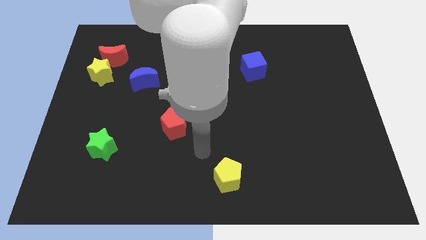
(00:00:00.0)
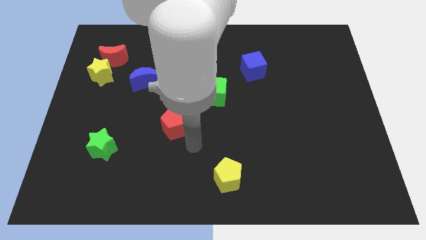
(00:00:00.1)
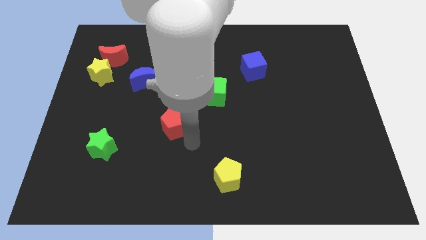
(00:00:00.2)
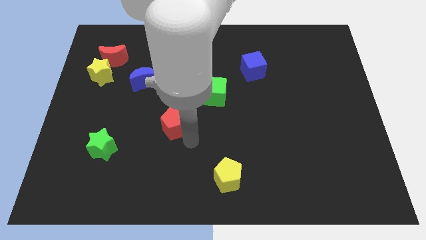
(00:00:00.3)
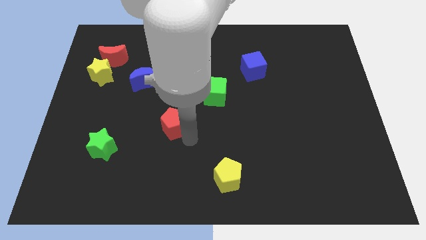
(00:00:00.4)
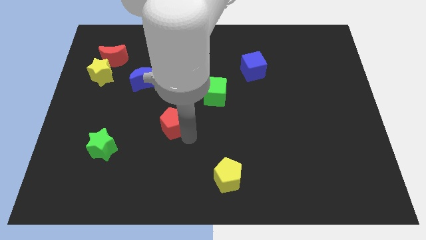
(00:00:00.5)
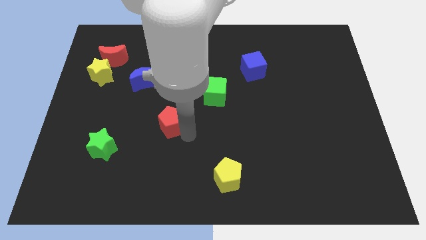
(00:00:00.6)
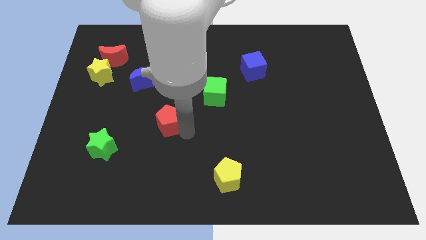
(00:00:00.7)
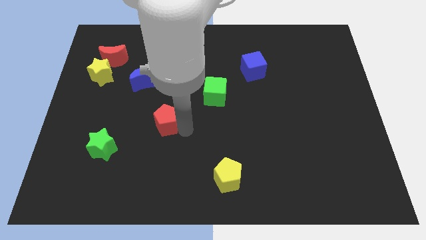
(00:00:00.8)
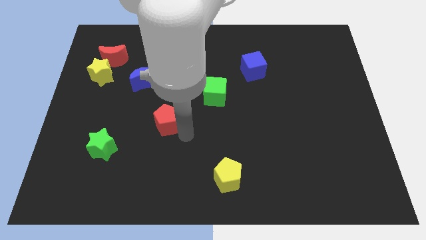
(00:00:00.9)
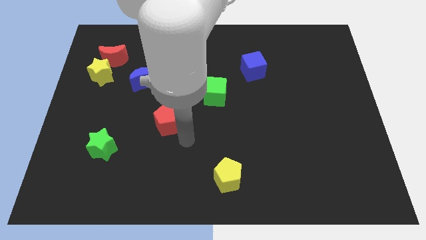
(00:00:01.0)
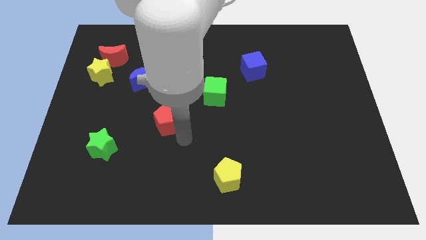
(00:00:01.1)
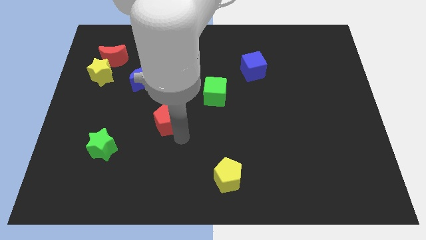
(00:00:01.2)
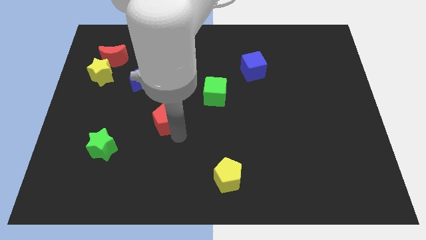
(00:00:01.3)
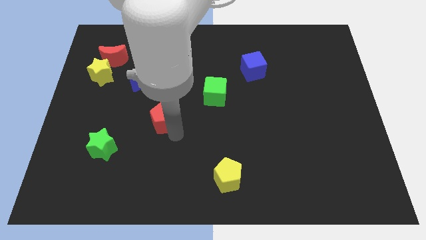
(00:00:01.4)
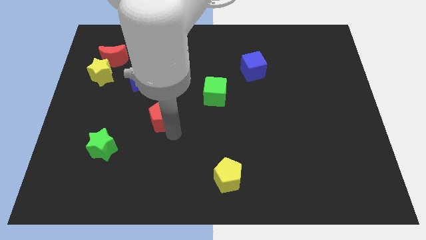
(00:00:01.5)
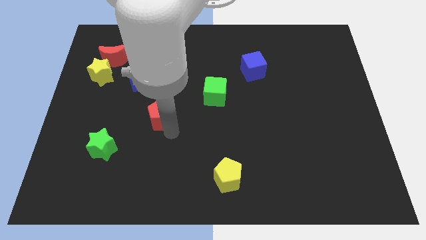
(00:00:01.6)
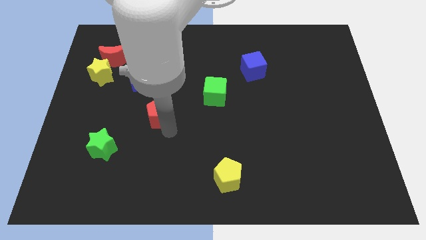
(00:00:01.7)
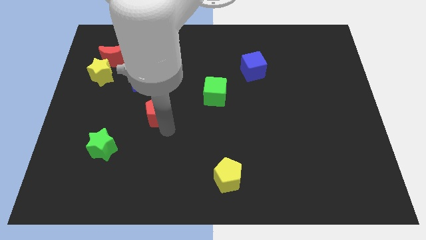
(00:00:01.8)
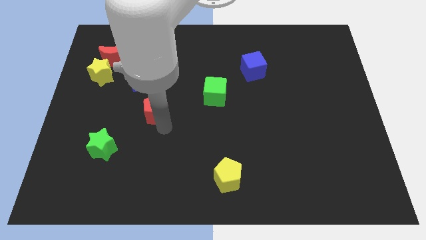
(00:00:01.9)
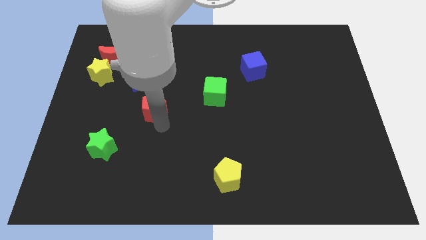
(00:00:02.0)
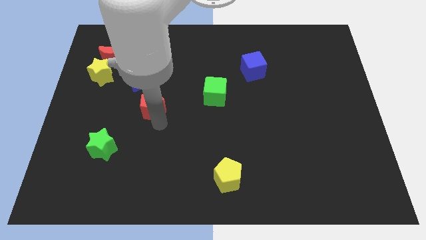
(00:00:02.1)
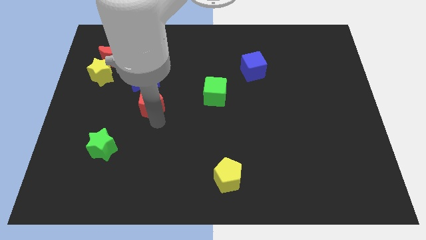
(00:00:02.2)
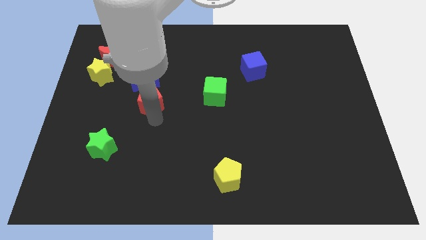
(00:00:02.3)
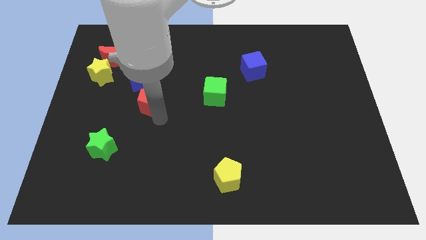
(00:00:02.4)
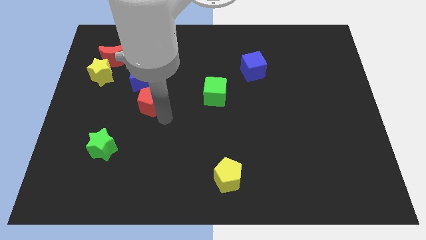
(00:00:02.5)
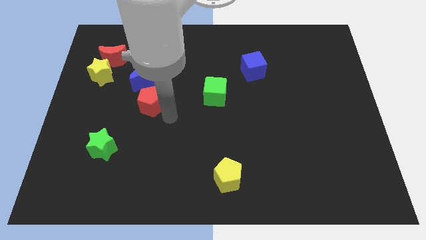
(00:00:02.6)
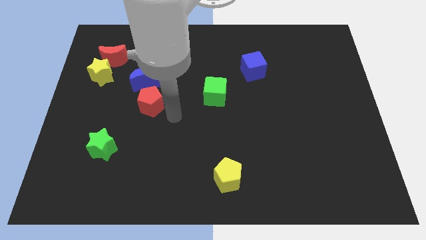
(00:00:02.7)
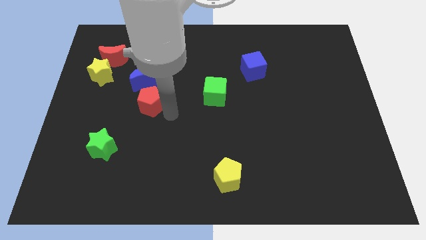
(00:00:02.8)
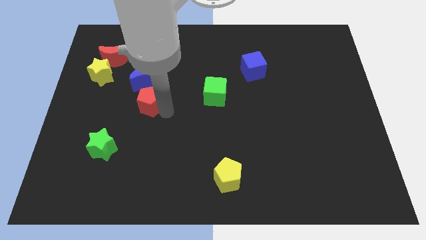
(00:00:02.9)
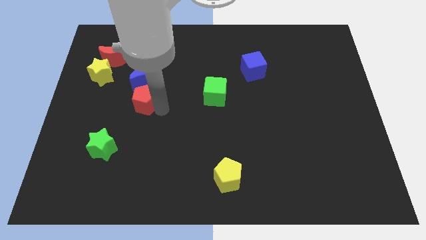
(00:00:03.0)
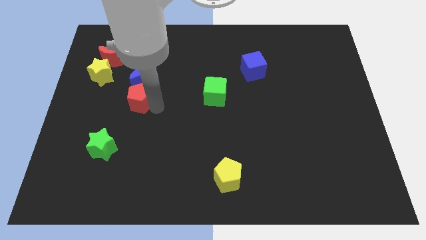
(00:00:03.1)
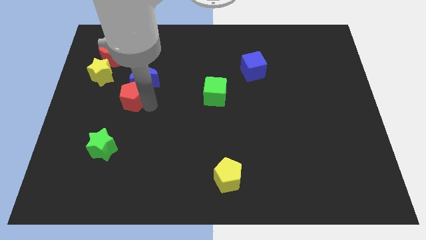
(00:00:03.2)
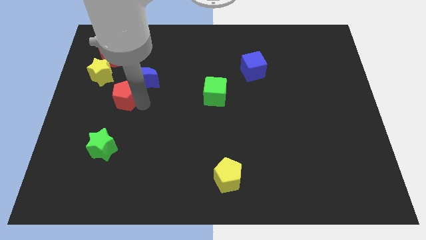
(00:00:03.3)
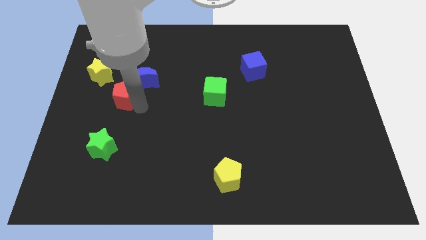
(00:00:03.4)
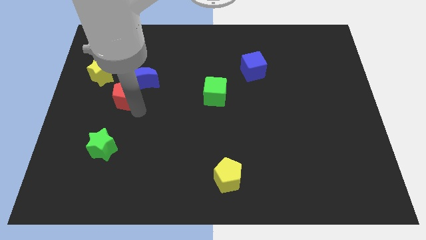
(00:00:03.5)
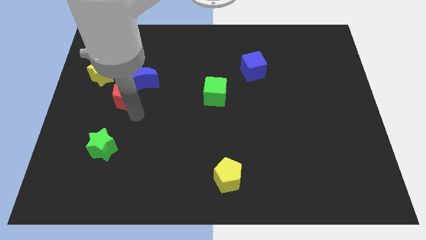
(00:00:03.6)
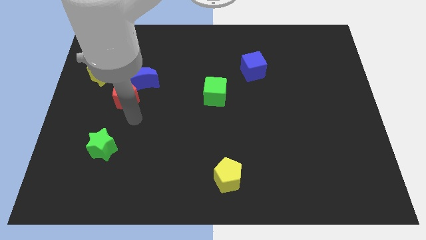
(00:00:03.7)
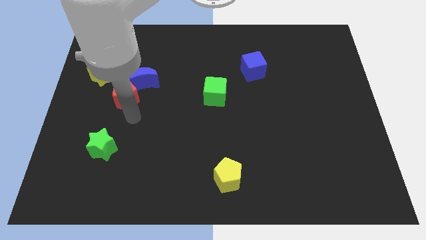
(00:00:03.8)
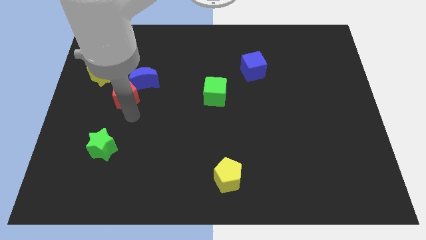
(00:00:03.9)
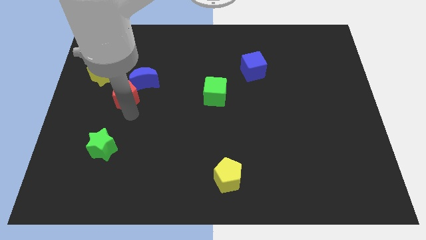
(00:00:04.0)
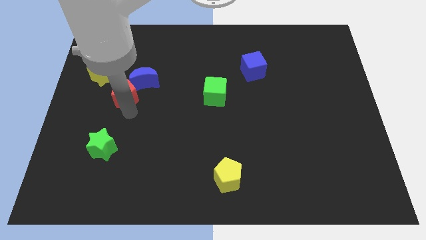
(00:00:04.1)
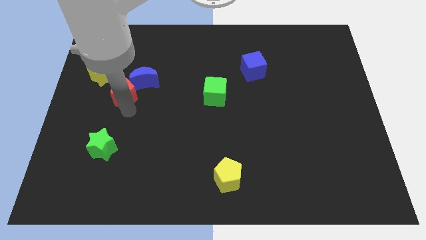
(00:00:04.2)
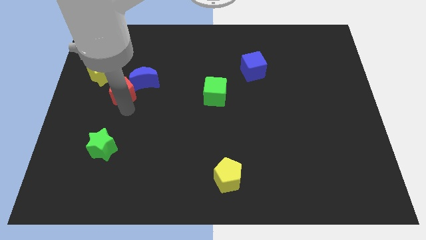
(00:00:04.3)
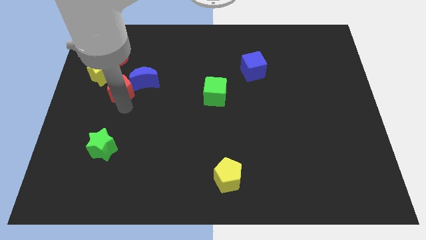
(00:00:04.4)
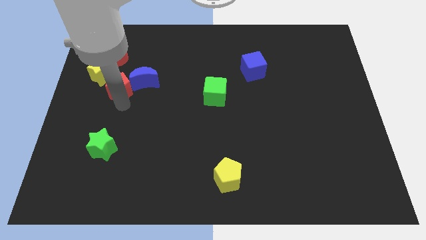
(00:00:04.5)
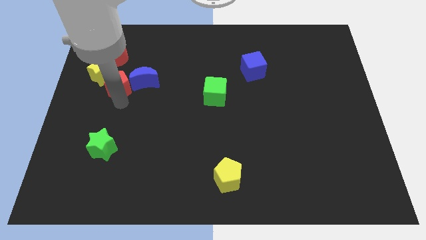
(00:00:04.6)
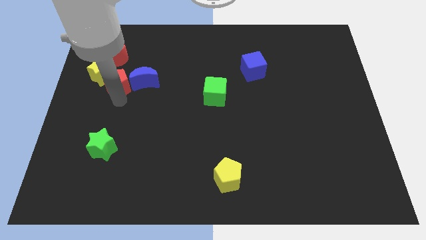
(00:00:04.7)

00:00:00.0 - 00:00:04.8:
move the red pentagon to the yellow star

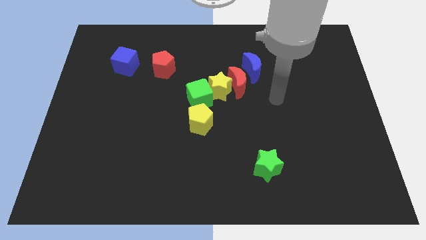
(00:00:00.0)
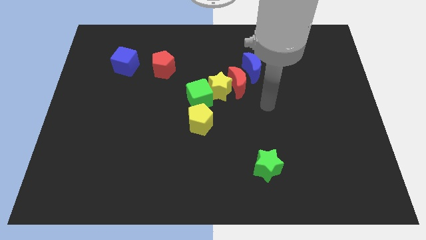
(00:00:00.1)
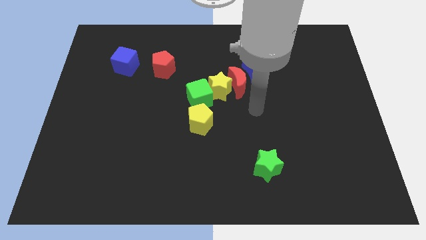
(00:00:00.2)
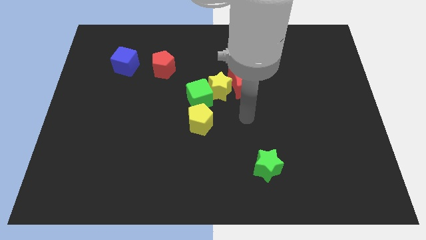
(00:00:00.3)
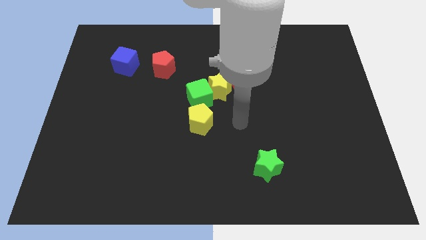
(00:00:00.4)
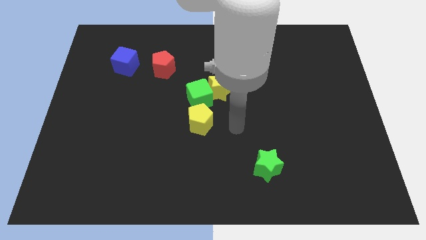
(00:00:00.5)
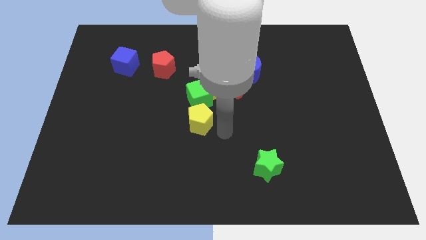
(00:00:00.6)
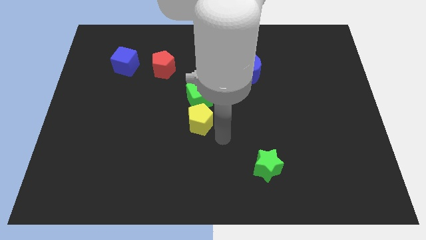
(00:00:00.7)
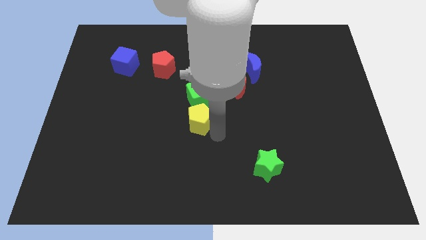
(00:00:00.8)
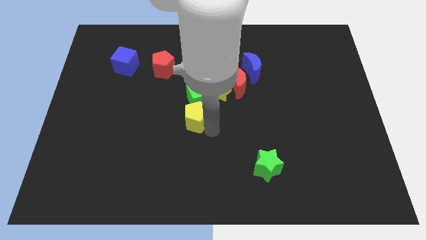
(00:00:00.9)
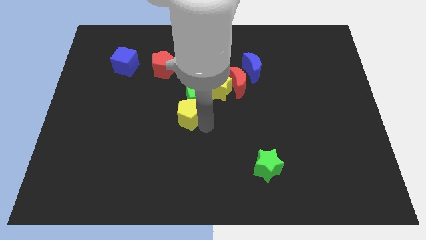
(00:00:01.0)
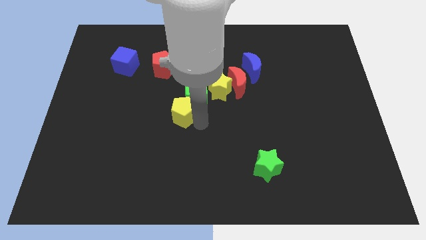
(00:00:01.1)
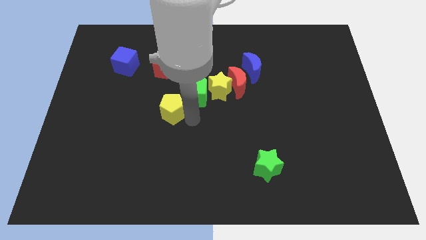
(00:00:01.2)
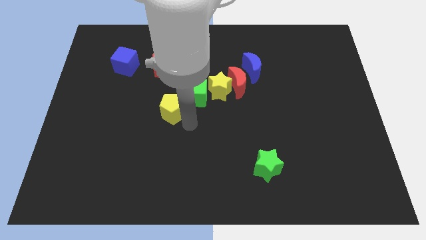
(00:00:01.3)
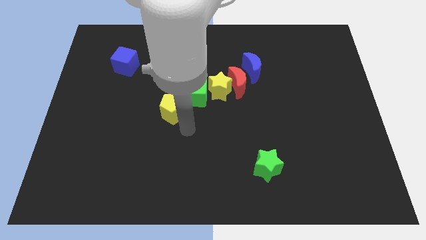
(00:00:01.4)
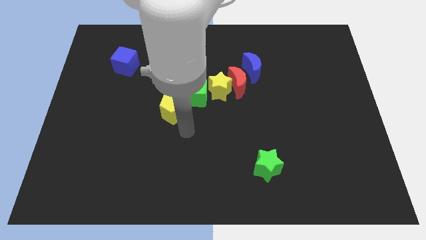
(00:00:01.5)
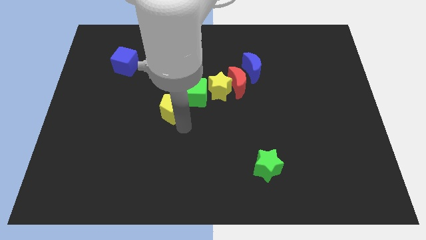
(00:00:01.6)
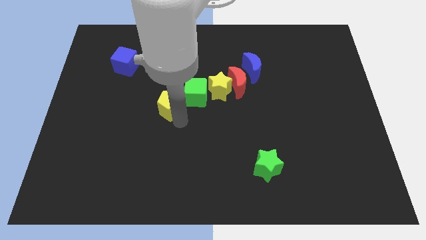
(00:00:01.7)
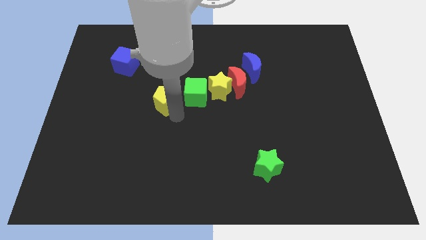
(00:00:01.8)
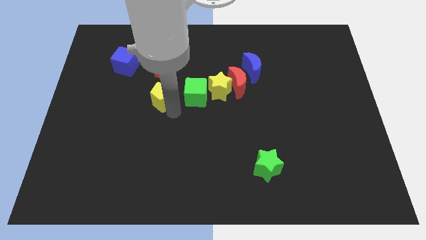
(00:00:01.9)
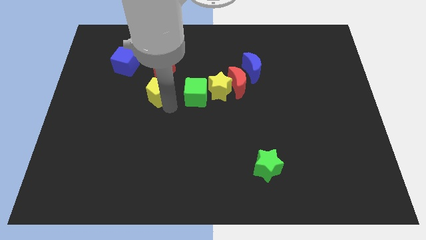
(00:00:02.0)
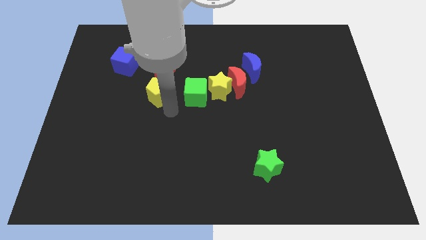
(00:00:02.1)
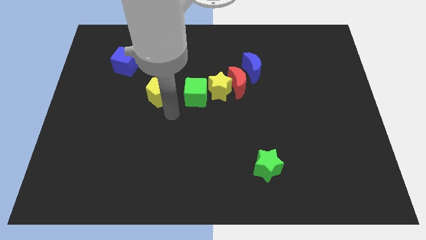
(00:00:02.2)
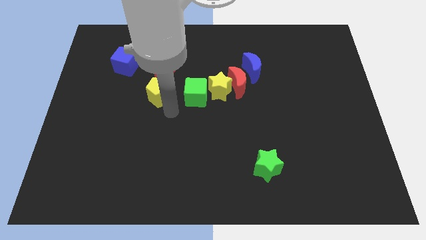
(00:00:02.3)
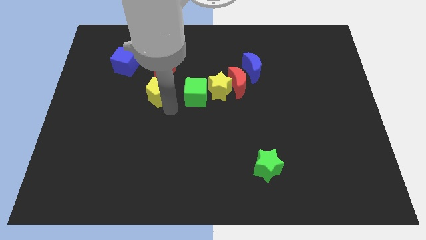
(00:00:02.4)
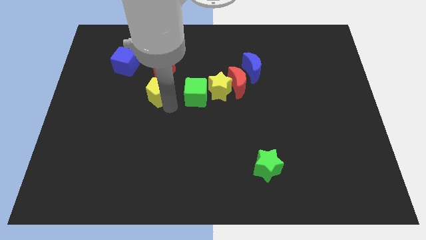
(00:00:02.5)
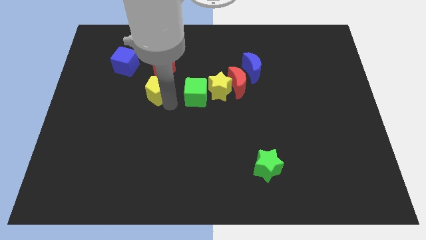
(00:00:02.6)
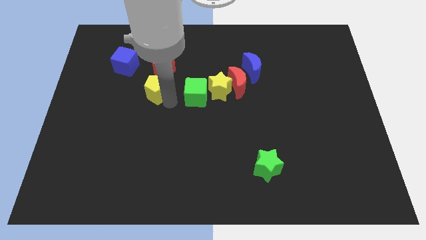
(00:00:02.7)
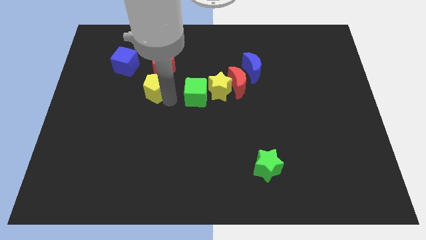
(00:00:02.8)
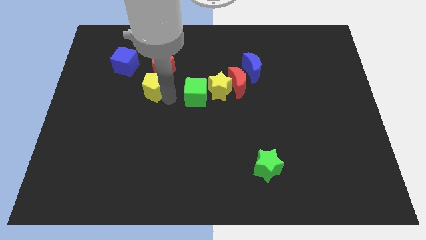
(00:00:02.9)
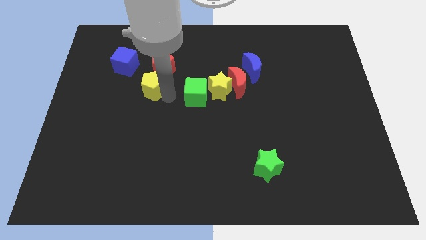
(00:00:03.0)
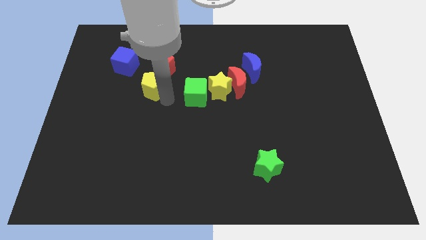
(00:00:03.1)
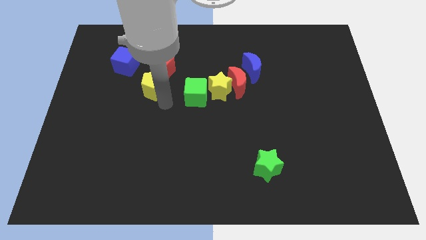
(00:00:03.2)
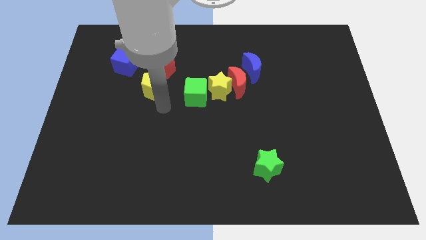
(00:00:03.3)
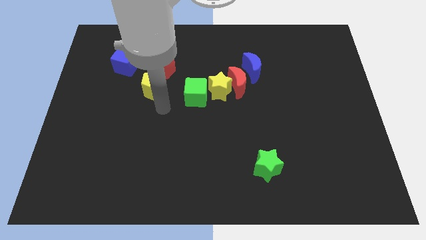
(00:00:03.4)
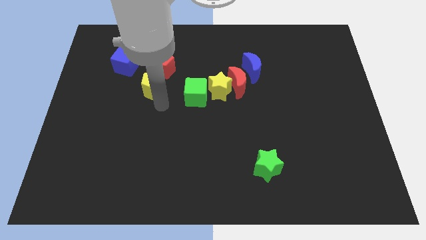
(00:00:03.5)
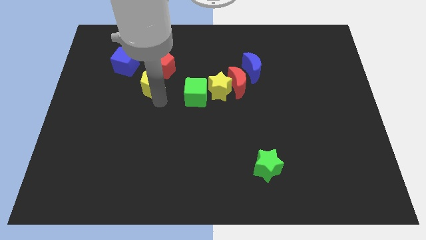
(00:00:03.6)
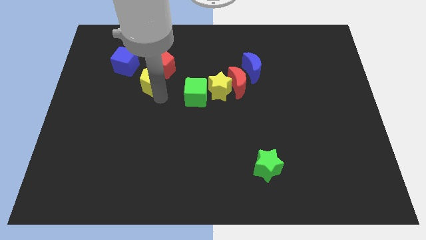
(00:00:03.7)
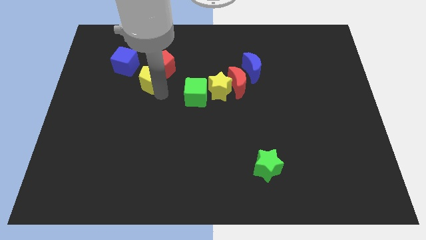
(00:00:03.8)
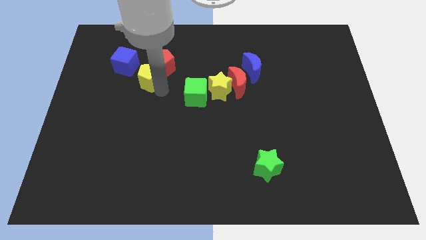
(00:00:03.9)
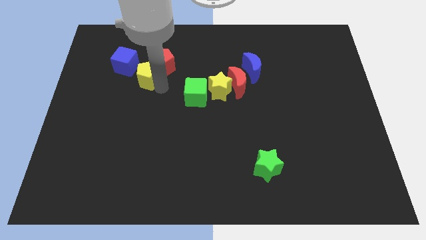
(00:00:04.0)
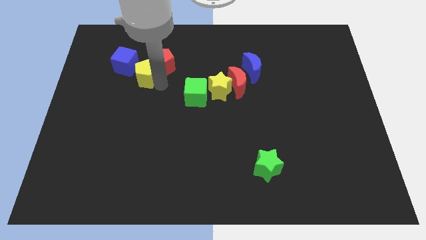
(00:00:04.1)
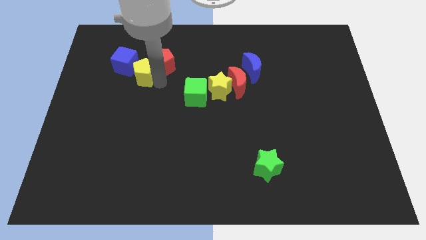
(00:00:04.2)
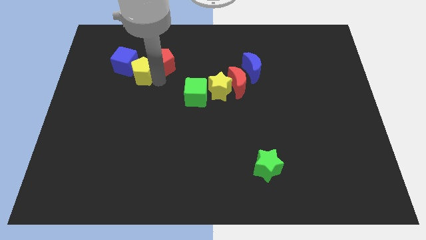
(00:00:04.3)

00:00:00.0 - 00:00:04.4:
slide the yellow pentagon to the blue cube
